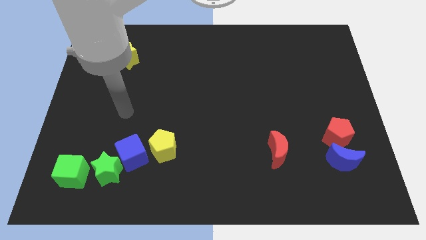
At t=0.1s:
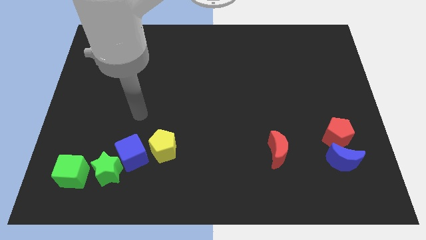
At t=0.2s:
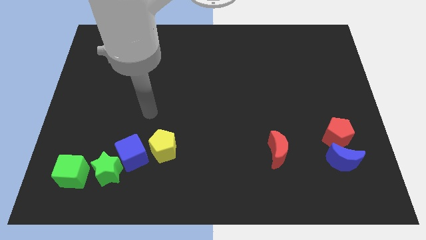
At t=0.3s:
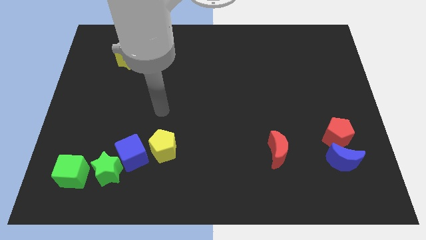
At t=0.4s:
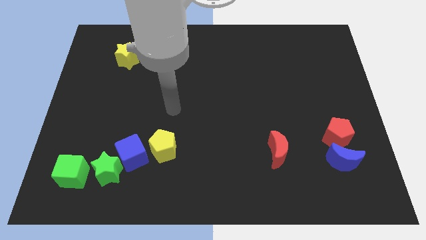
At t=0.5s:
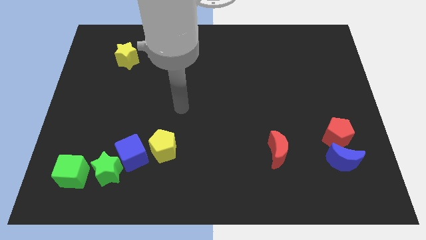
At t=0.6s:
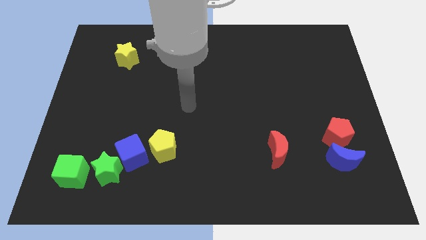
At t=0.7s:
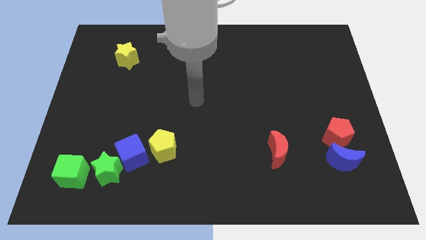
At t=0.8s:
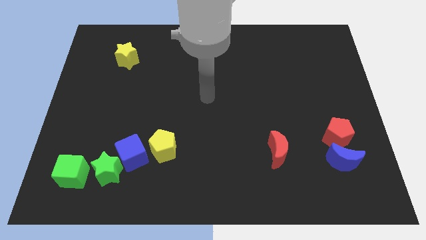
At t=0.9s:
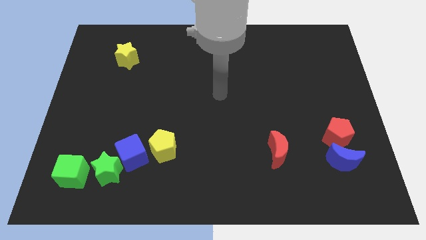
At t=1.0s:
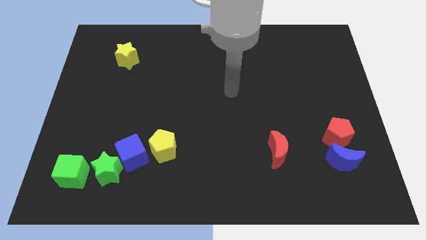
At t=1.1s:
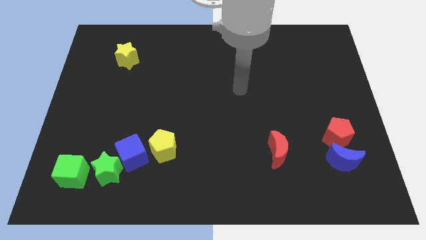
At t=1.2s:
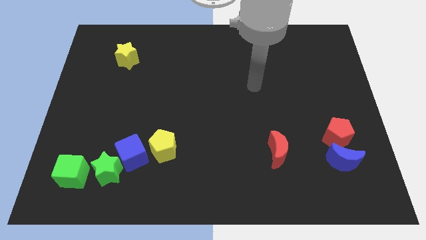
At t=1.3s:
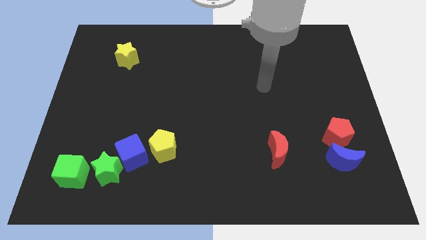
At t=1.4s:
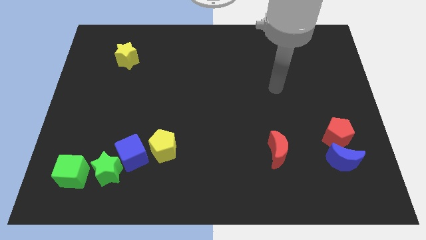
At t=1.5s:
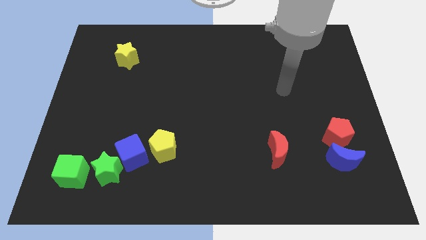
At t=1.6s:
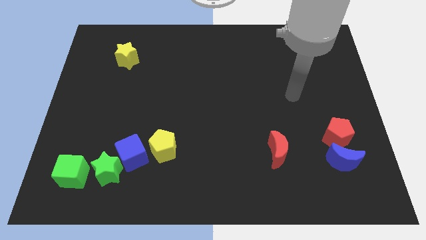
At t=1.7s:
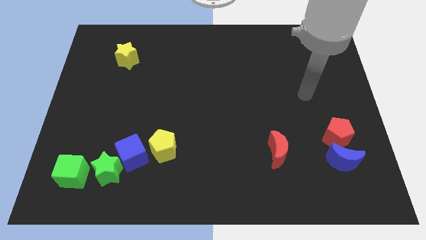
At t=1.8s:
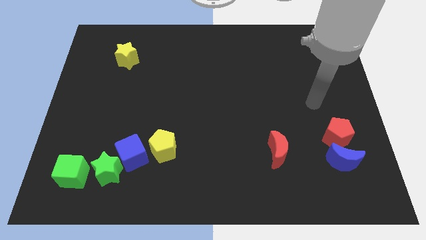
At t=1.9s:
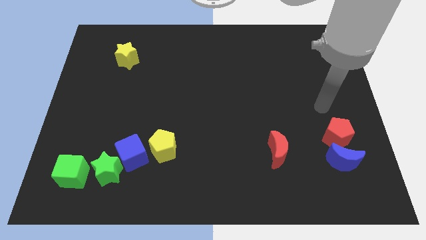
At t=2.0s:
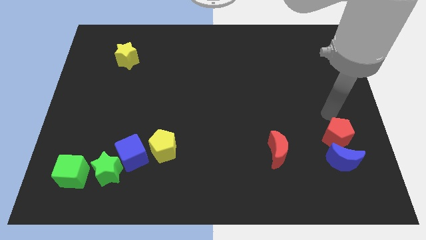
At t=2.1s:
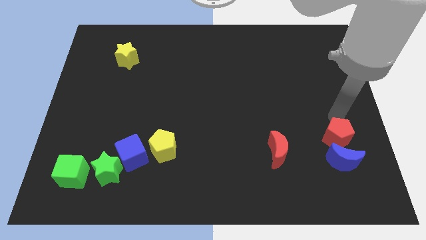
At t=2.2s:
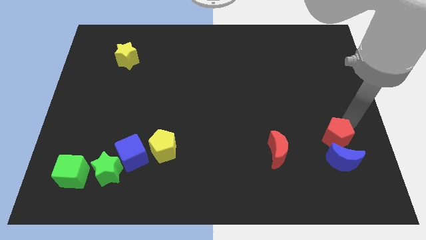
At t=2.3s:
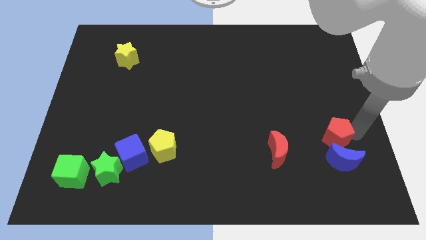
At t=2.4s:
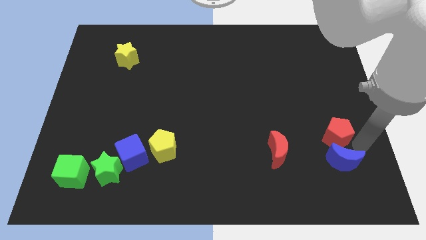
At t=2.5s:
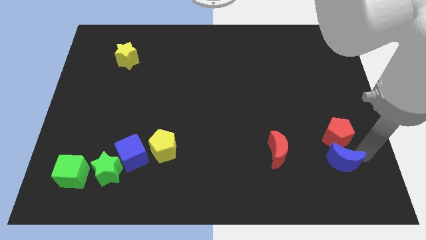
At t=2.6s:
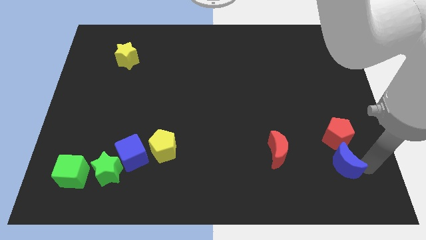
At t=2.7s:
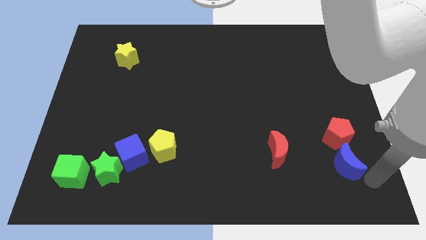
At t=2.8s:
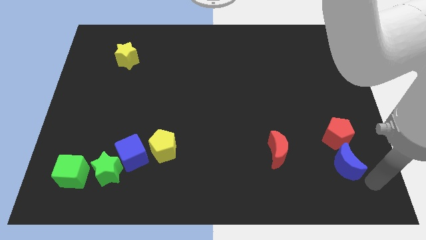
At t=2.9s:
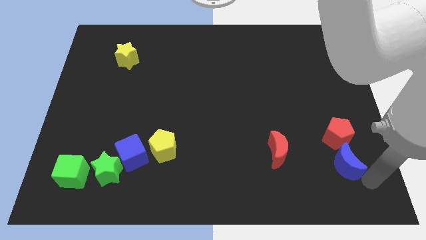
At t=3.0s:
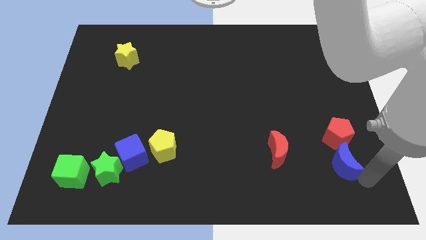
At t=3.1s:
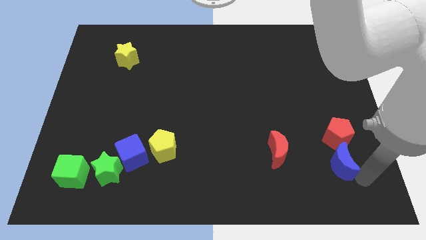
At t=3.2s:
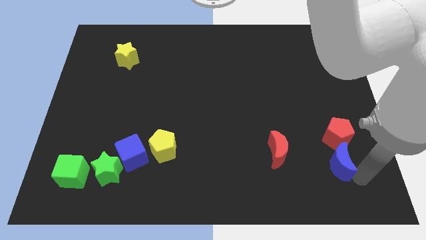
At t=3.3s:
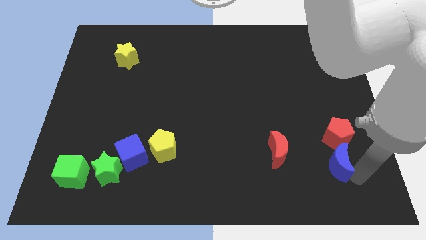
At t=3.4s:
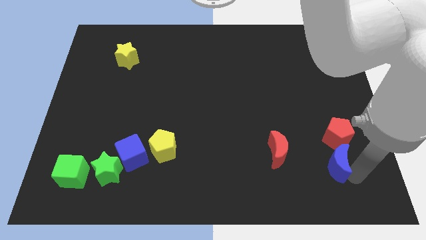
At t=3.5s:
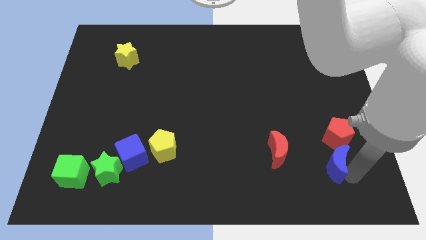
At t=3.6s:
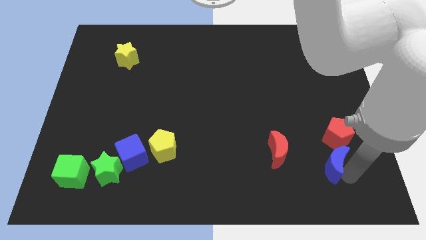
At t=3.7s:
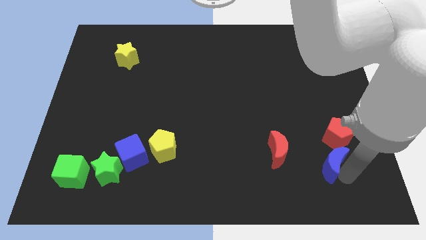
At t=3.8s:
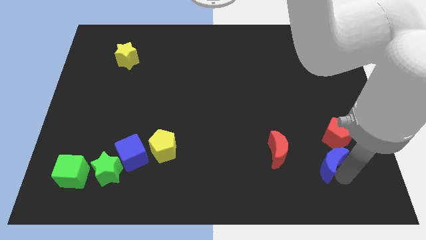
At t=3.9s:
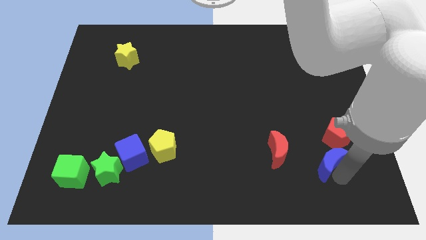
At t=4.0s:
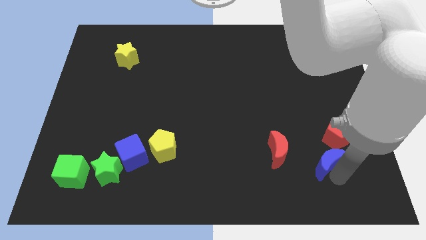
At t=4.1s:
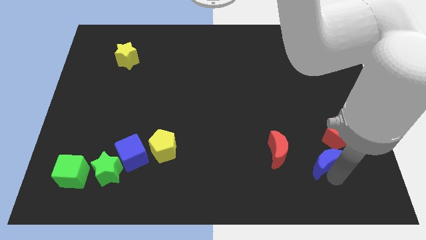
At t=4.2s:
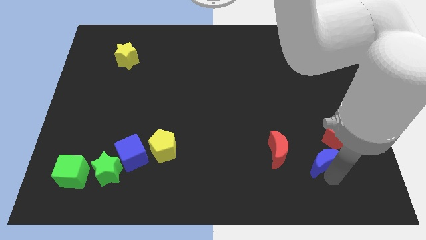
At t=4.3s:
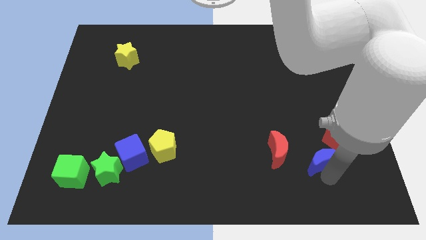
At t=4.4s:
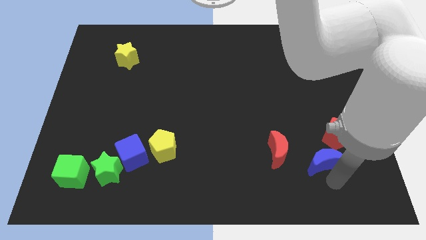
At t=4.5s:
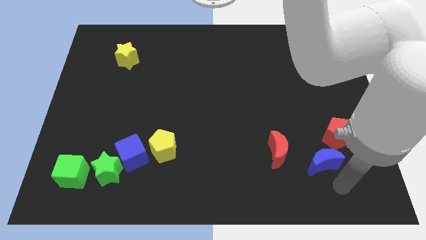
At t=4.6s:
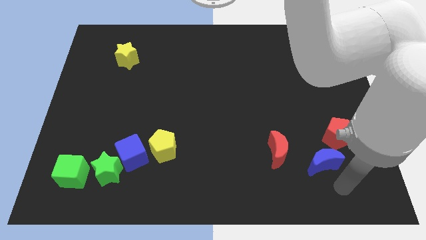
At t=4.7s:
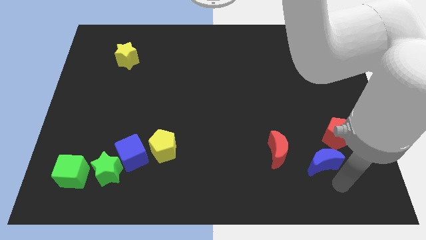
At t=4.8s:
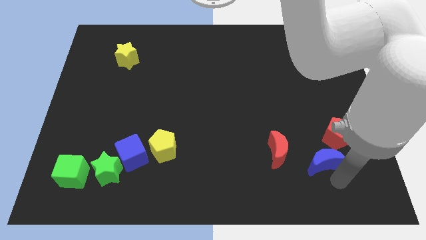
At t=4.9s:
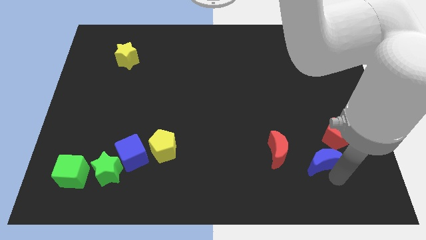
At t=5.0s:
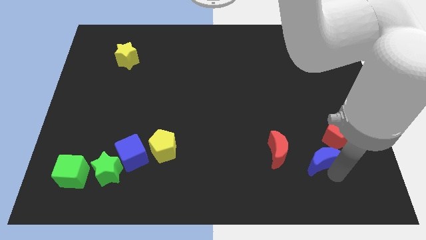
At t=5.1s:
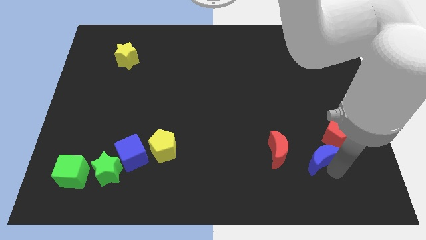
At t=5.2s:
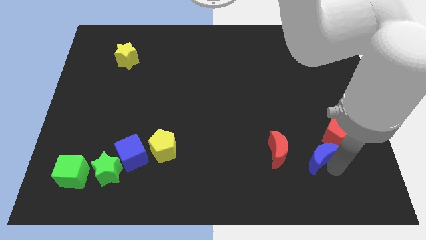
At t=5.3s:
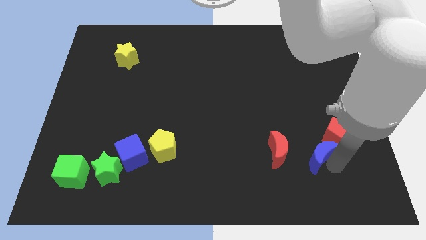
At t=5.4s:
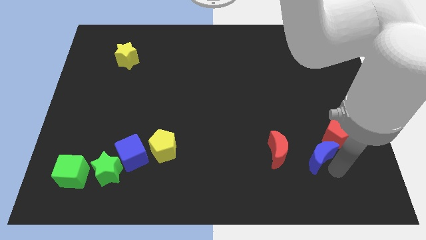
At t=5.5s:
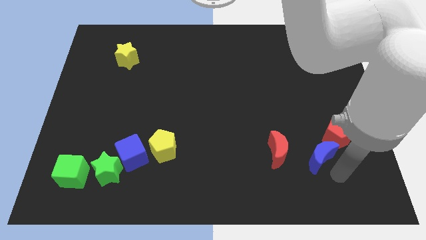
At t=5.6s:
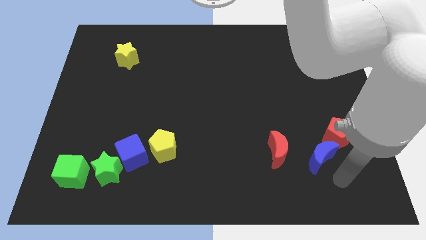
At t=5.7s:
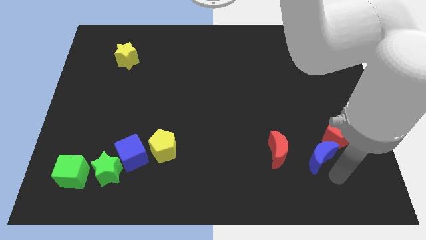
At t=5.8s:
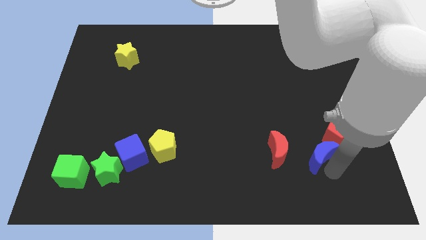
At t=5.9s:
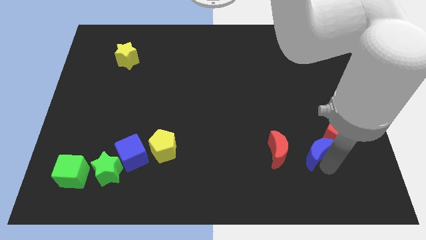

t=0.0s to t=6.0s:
push the blue moon just left of the red pentagon
